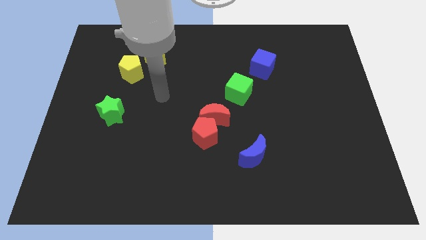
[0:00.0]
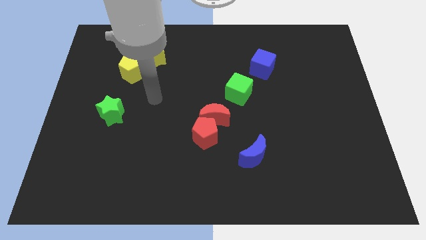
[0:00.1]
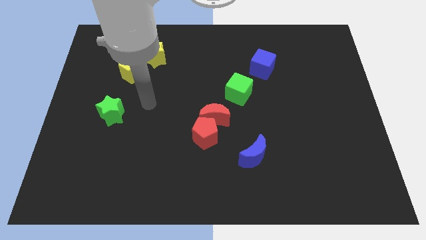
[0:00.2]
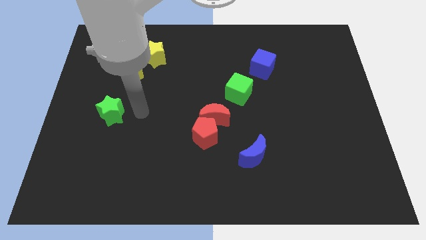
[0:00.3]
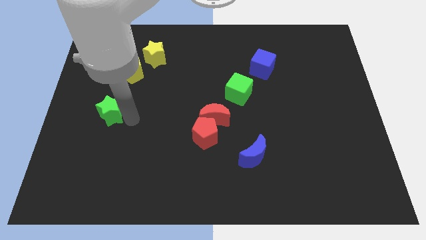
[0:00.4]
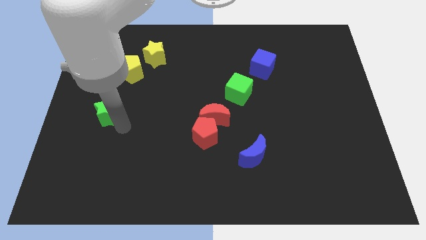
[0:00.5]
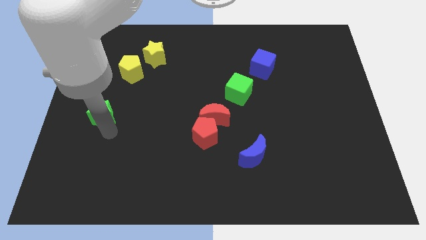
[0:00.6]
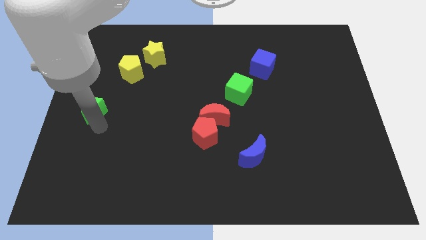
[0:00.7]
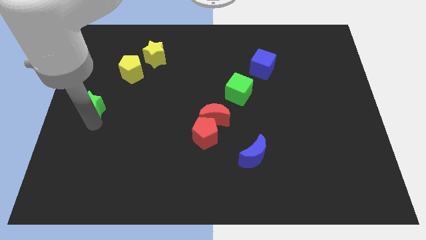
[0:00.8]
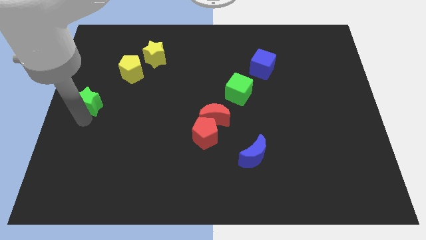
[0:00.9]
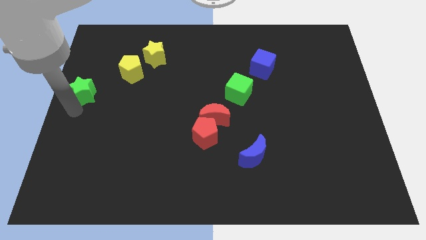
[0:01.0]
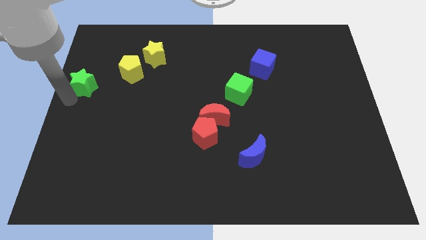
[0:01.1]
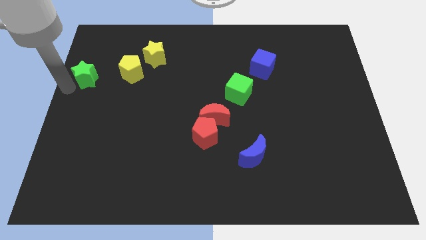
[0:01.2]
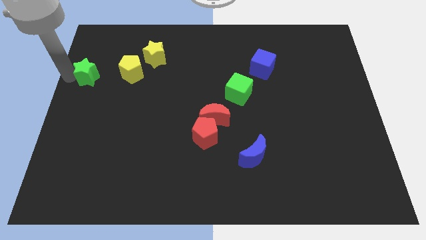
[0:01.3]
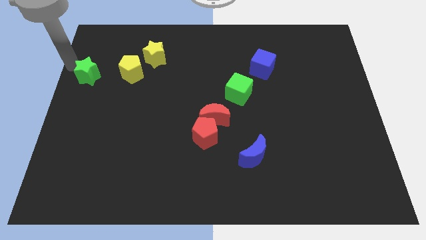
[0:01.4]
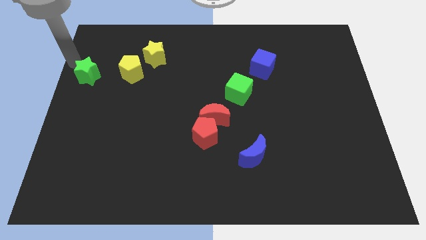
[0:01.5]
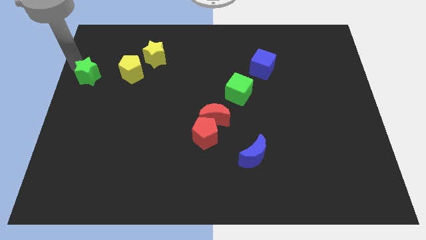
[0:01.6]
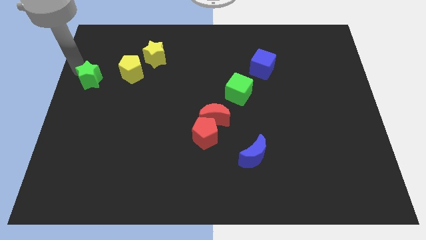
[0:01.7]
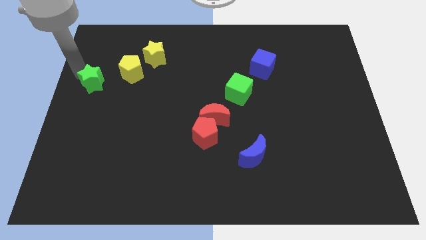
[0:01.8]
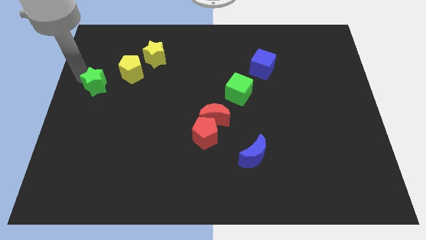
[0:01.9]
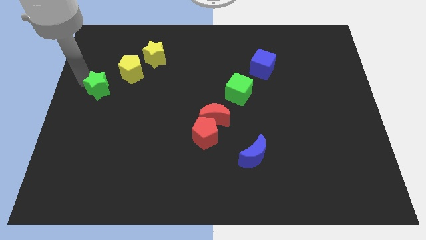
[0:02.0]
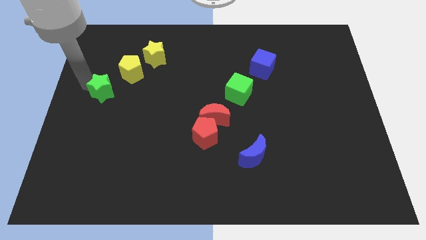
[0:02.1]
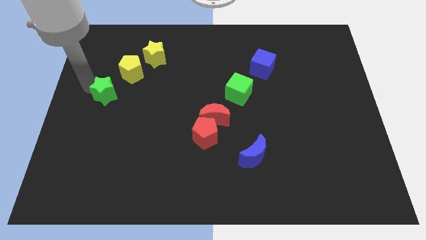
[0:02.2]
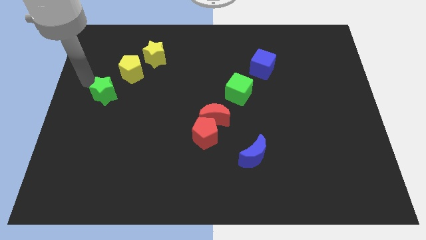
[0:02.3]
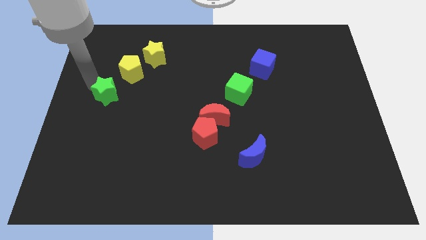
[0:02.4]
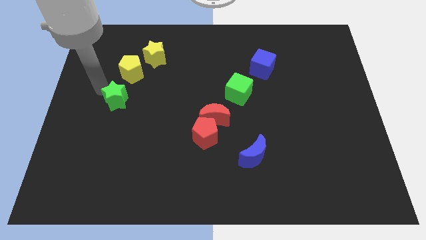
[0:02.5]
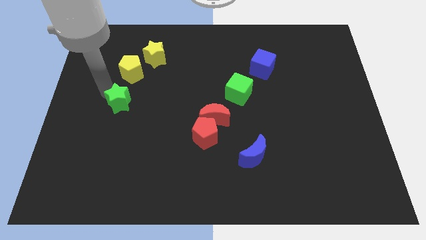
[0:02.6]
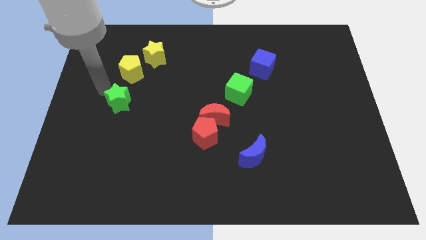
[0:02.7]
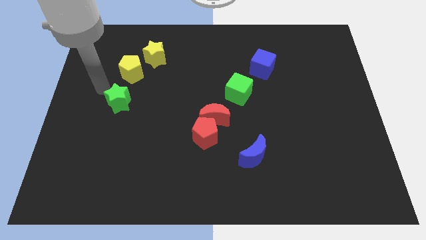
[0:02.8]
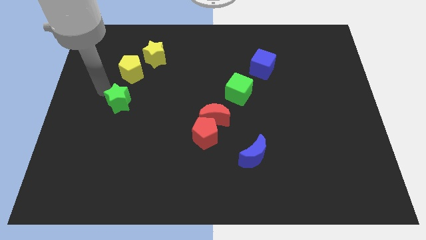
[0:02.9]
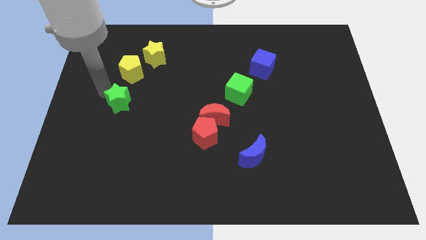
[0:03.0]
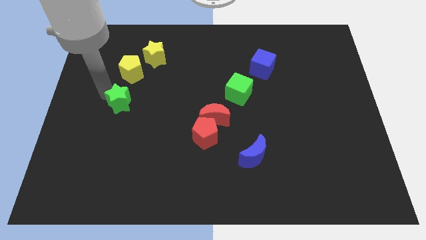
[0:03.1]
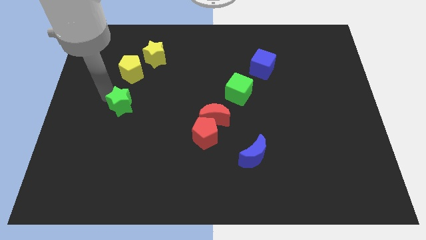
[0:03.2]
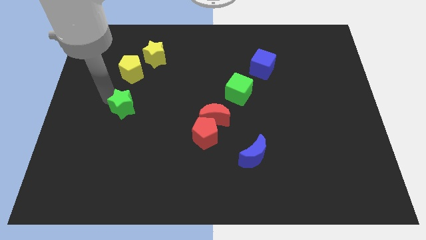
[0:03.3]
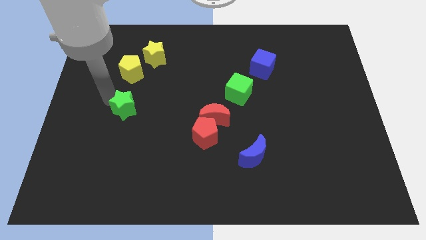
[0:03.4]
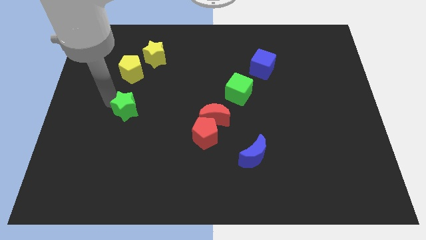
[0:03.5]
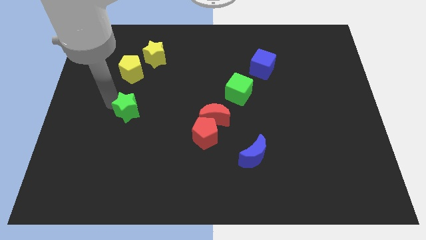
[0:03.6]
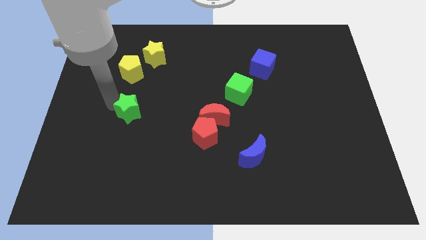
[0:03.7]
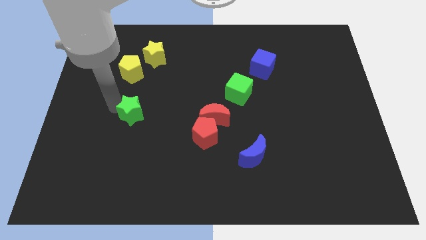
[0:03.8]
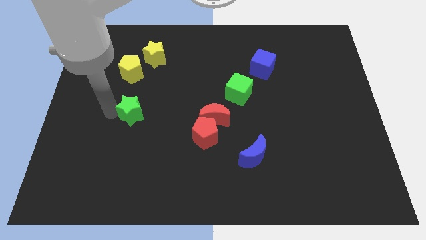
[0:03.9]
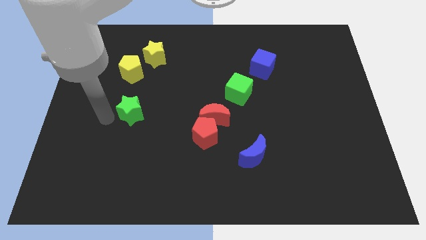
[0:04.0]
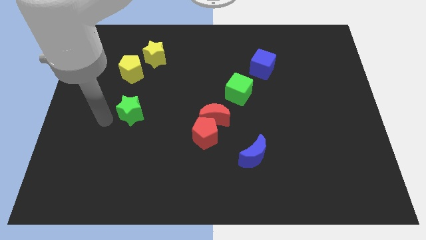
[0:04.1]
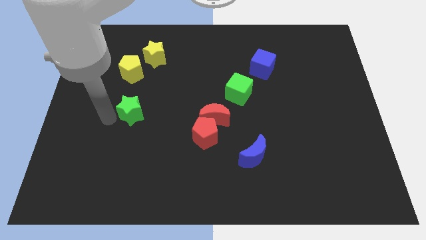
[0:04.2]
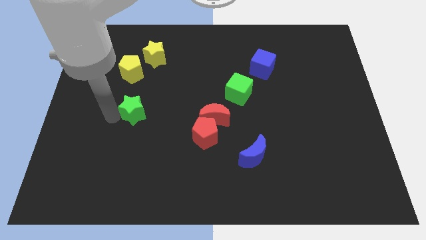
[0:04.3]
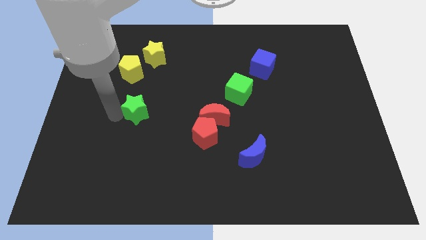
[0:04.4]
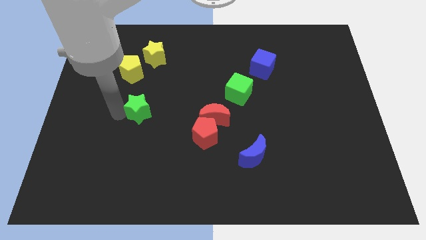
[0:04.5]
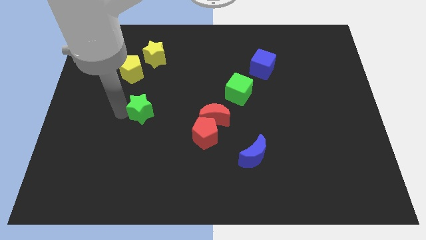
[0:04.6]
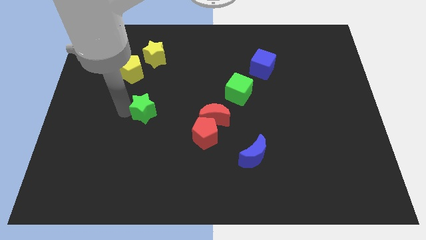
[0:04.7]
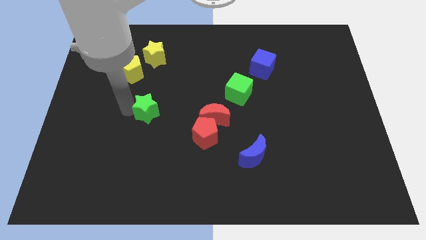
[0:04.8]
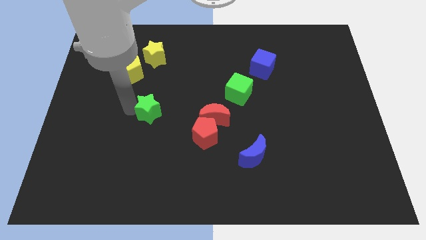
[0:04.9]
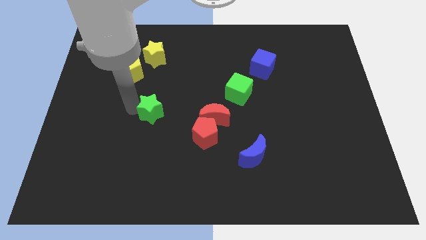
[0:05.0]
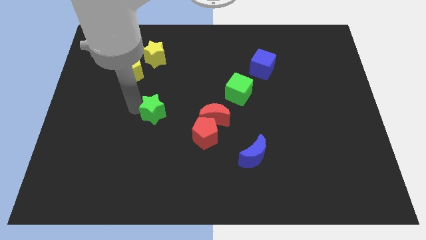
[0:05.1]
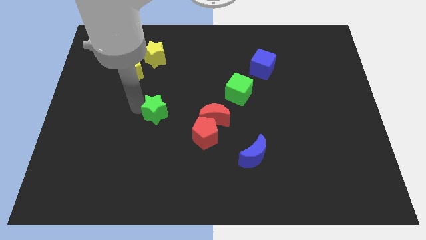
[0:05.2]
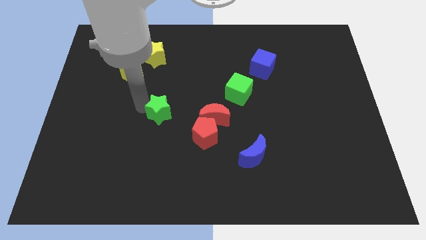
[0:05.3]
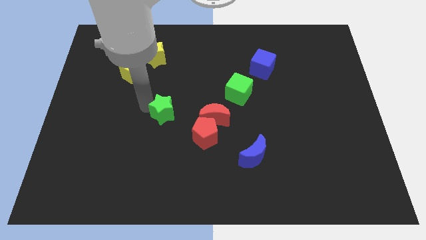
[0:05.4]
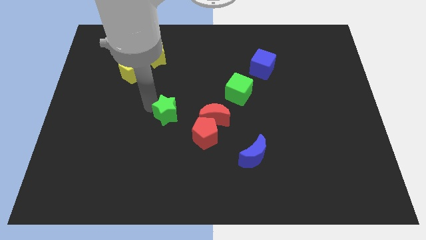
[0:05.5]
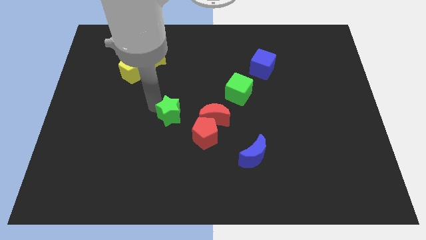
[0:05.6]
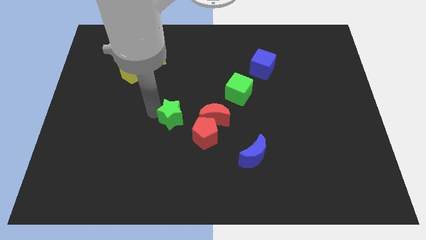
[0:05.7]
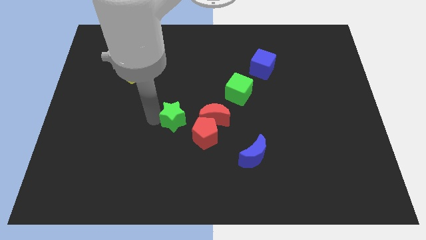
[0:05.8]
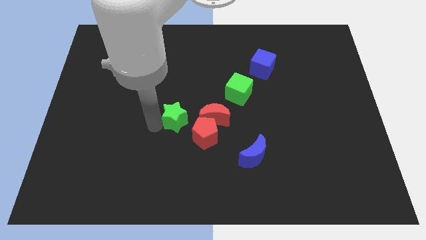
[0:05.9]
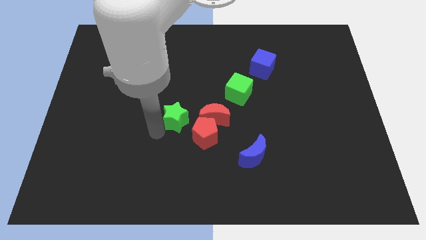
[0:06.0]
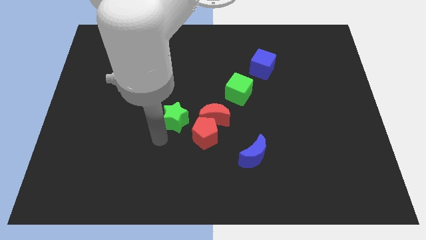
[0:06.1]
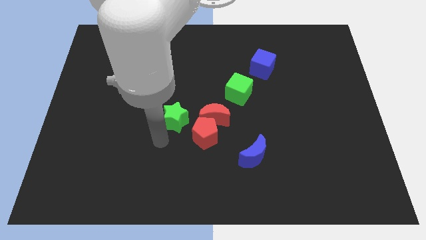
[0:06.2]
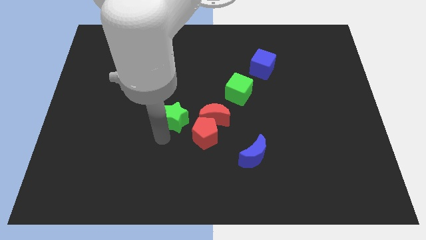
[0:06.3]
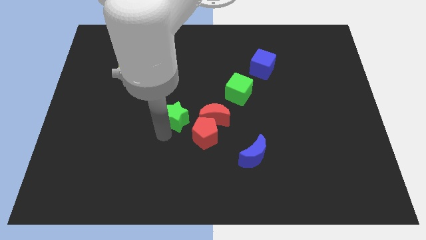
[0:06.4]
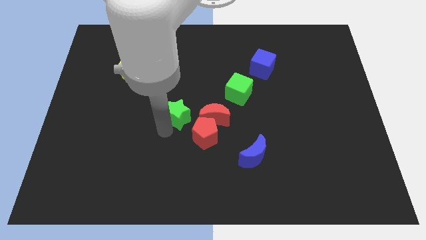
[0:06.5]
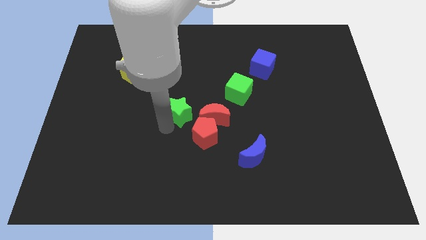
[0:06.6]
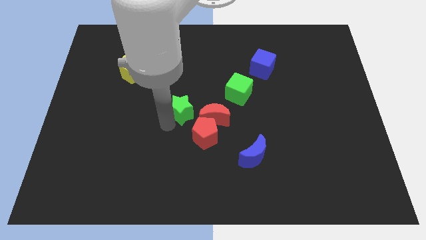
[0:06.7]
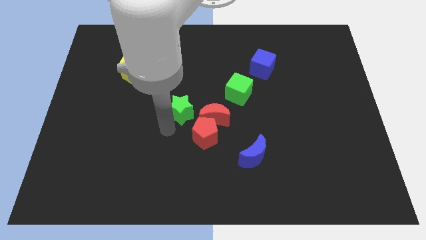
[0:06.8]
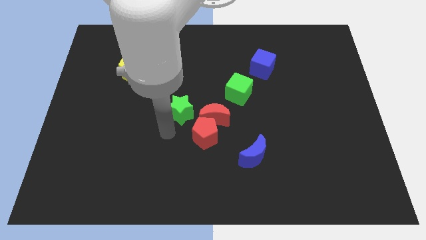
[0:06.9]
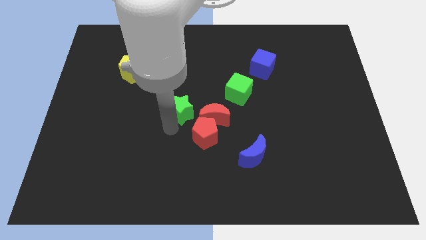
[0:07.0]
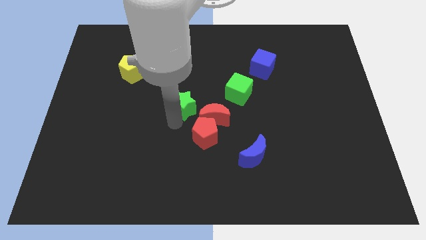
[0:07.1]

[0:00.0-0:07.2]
put the green star just left of the green cube

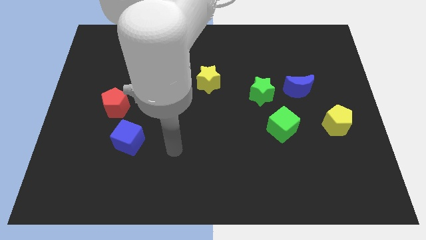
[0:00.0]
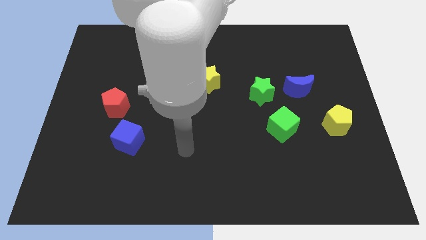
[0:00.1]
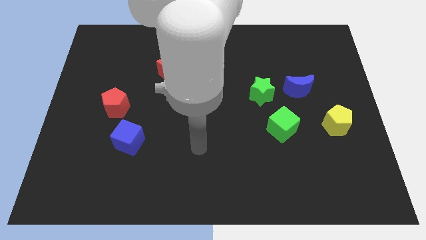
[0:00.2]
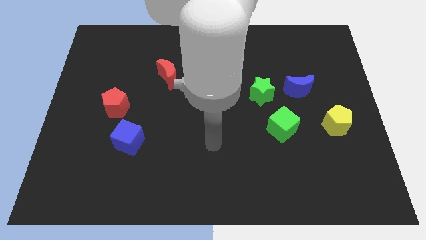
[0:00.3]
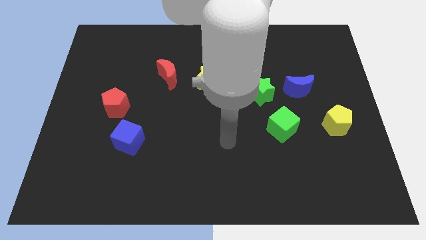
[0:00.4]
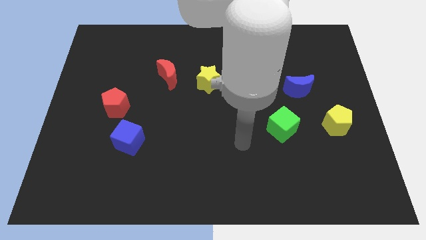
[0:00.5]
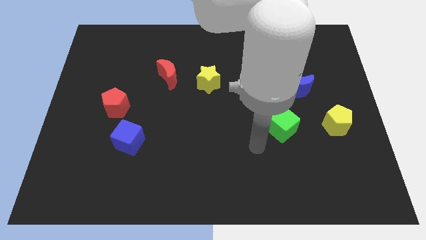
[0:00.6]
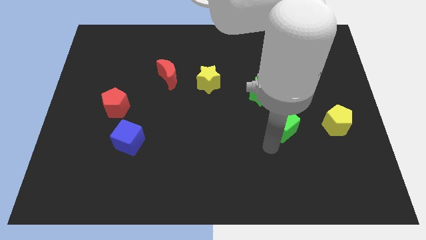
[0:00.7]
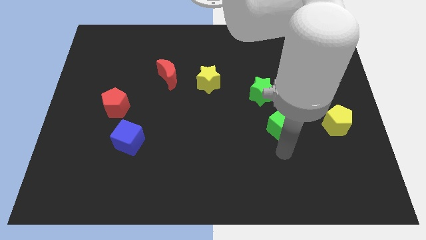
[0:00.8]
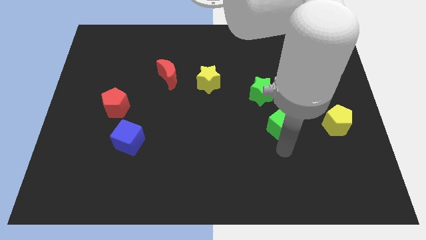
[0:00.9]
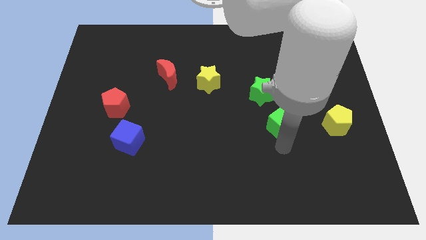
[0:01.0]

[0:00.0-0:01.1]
push the green cube to the bottom left side of the blue moon
